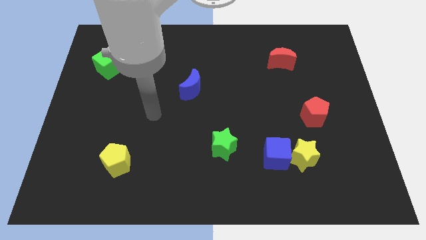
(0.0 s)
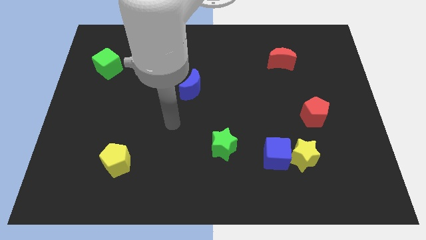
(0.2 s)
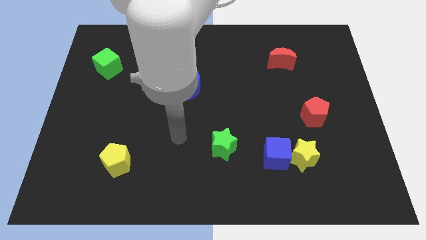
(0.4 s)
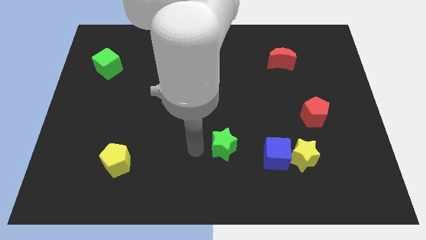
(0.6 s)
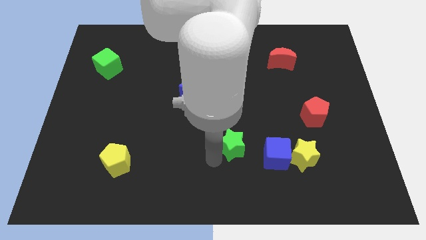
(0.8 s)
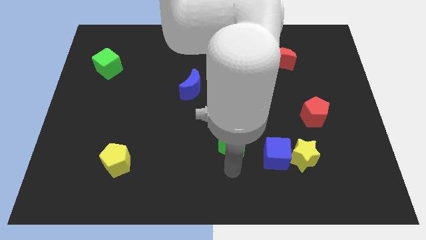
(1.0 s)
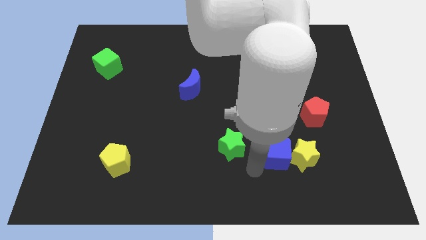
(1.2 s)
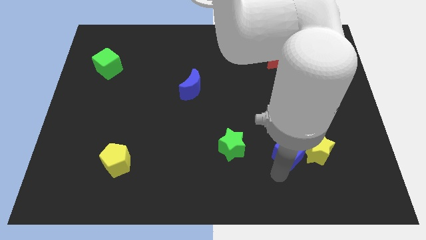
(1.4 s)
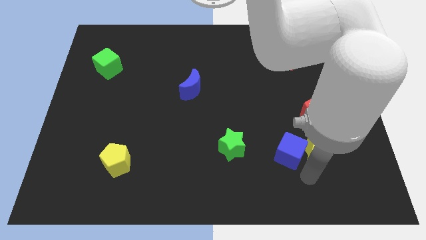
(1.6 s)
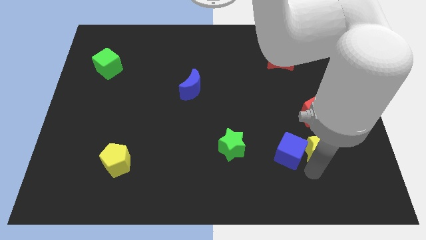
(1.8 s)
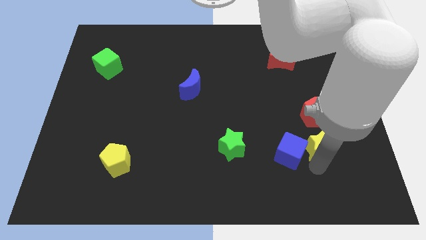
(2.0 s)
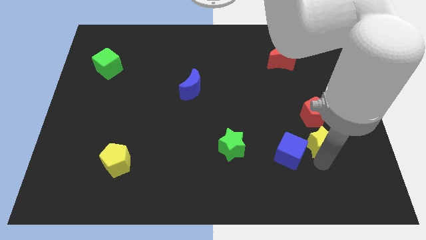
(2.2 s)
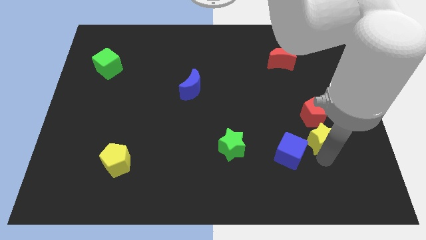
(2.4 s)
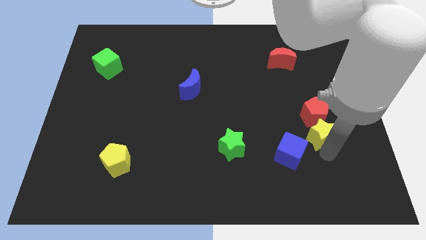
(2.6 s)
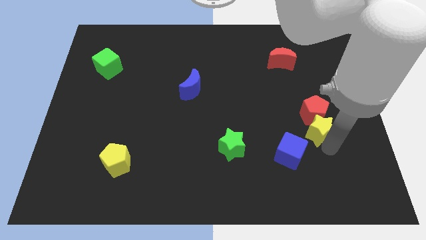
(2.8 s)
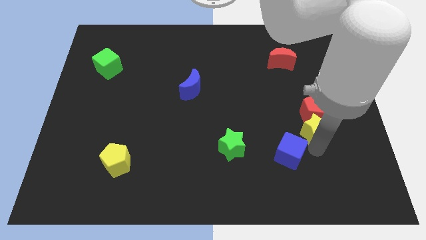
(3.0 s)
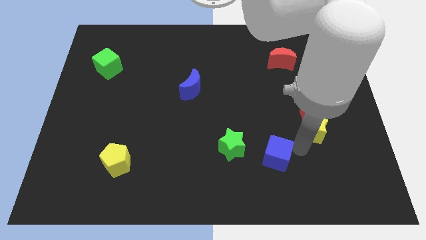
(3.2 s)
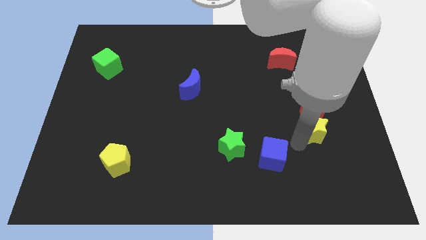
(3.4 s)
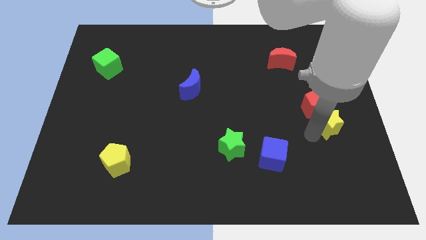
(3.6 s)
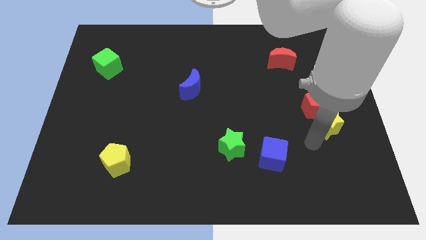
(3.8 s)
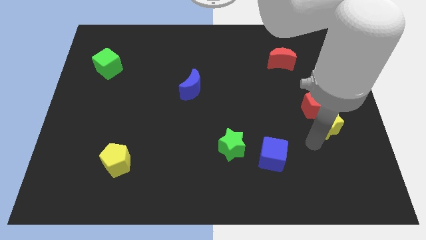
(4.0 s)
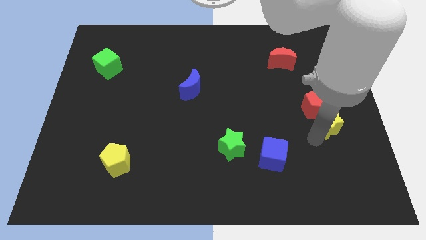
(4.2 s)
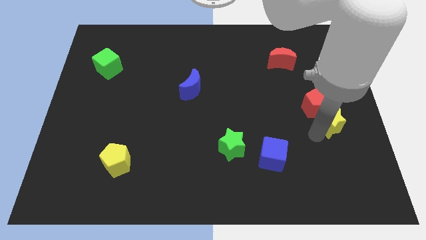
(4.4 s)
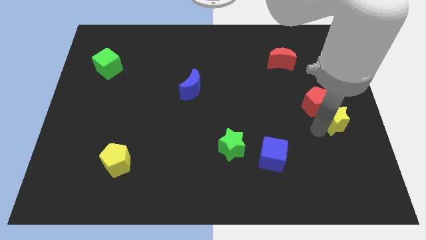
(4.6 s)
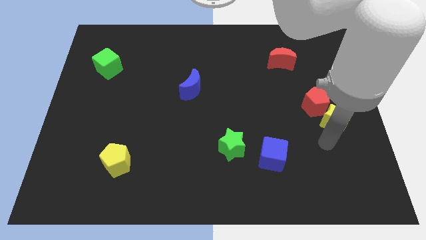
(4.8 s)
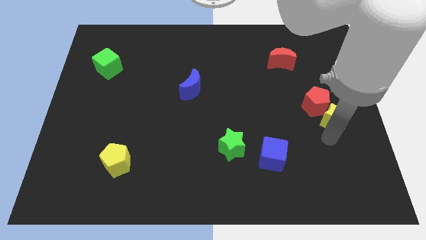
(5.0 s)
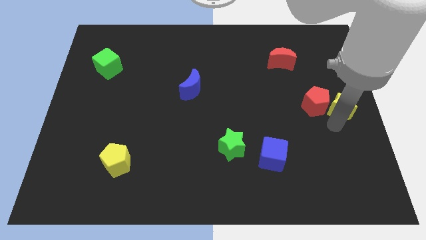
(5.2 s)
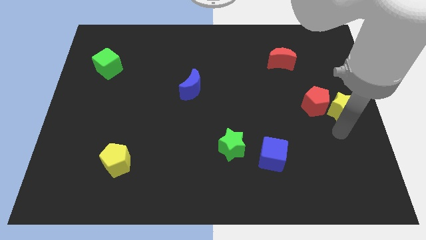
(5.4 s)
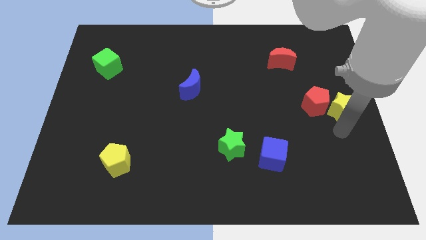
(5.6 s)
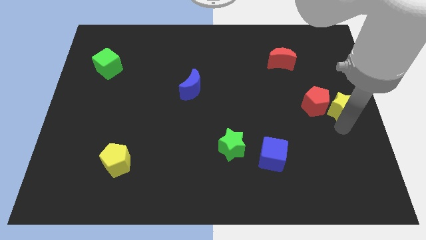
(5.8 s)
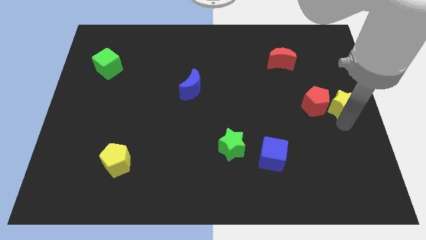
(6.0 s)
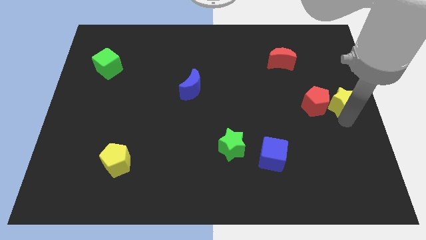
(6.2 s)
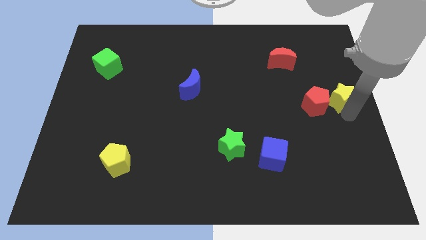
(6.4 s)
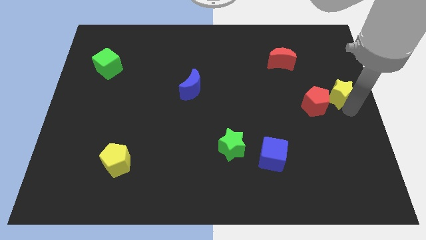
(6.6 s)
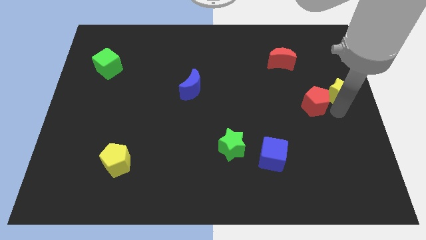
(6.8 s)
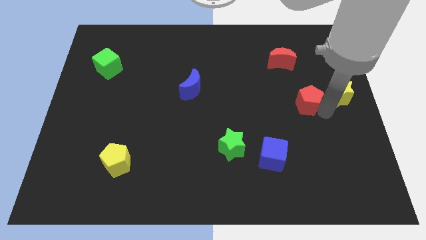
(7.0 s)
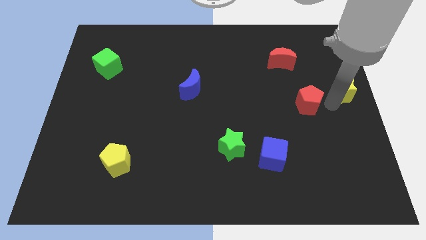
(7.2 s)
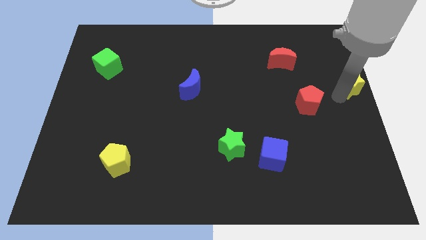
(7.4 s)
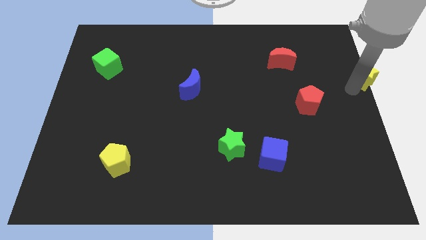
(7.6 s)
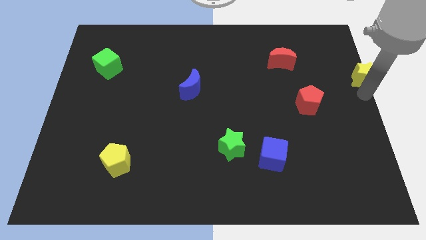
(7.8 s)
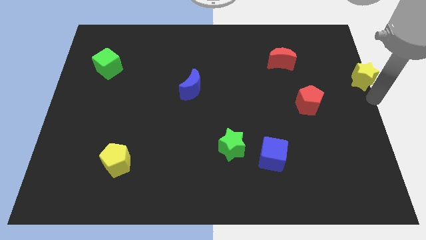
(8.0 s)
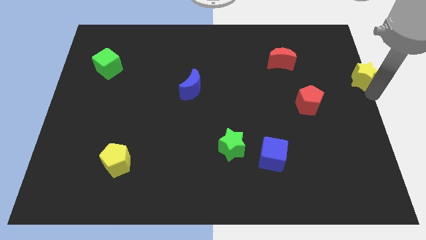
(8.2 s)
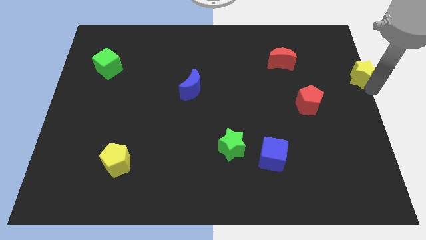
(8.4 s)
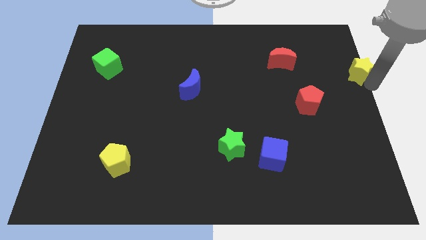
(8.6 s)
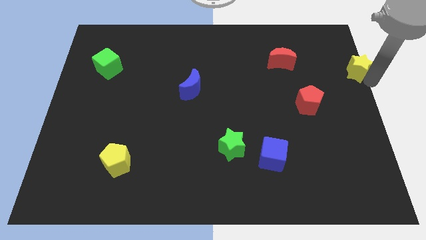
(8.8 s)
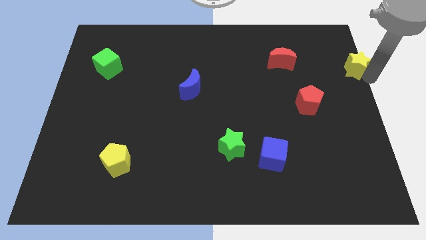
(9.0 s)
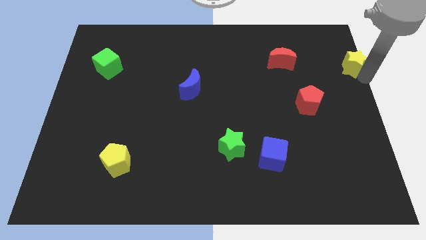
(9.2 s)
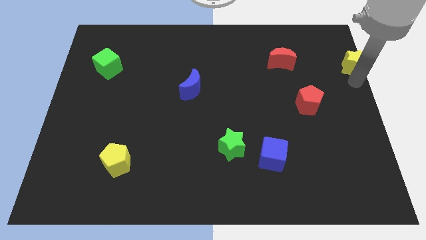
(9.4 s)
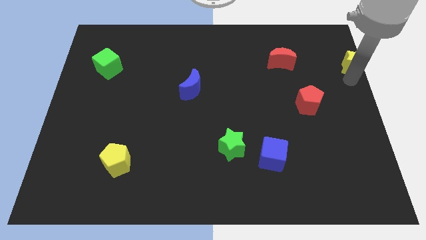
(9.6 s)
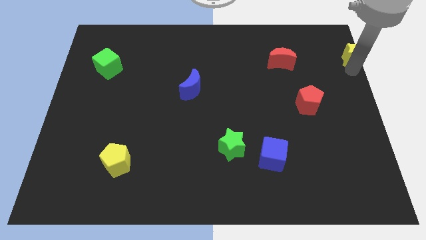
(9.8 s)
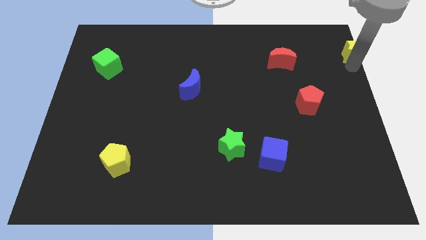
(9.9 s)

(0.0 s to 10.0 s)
move the yellow star to the top right

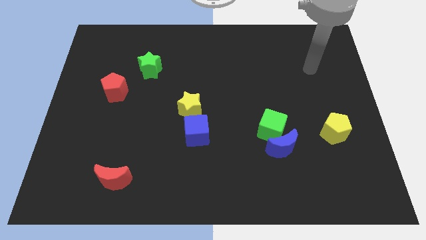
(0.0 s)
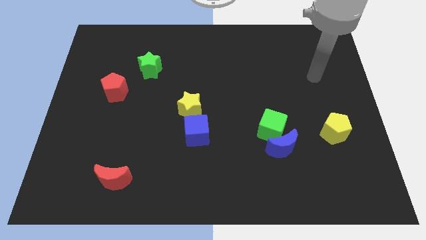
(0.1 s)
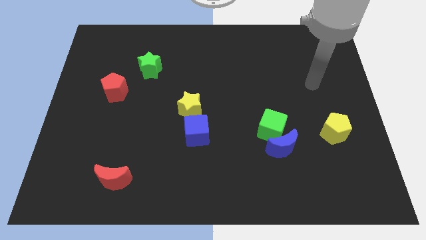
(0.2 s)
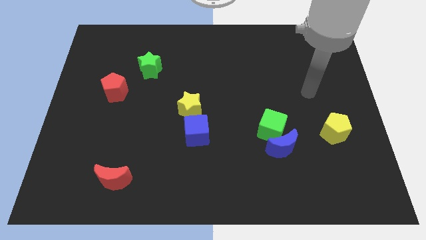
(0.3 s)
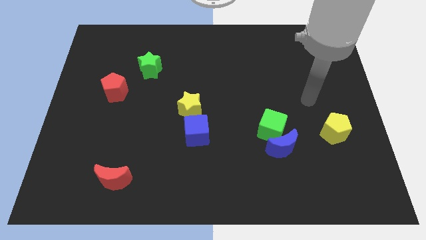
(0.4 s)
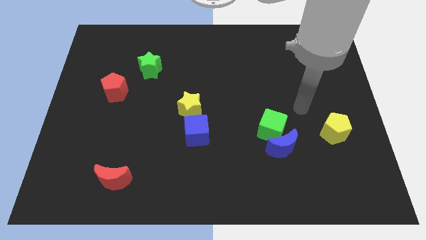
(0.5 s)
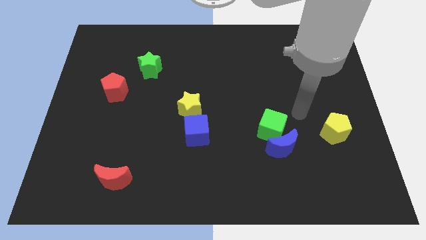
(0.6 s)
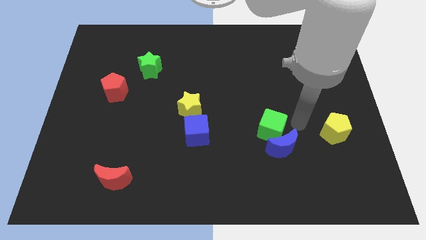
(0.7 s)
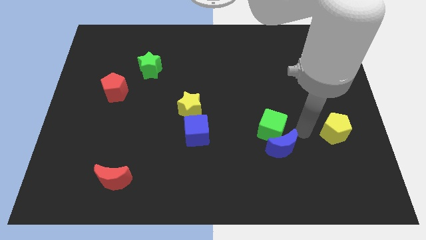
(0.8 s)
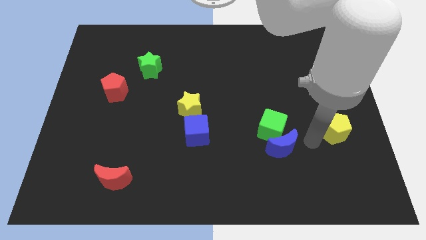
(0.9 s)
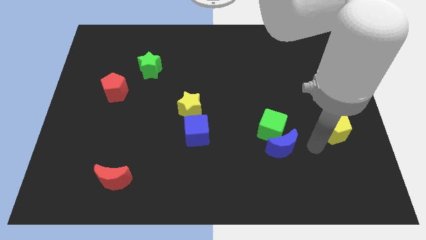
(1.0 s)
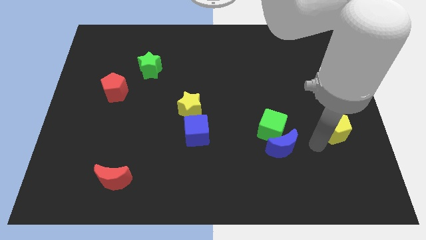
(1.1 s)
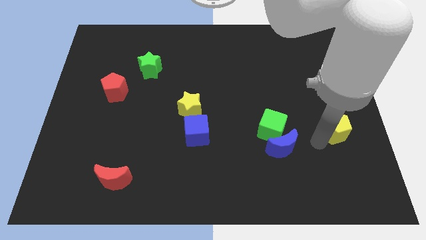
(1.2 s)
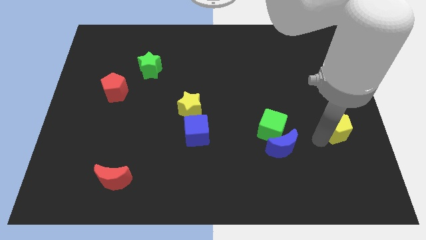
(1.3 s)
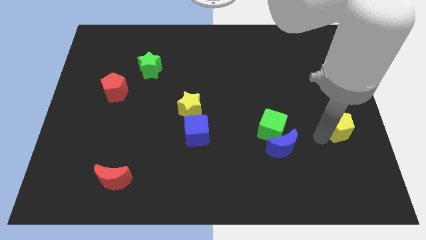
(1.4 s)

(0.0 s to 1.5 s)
slide the yellow pentagon to the right side
